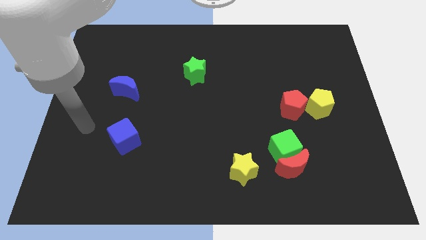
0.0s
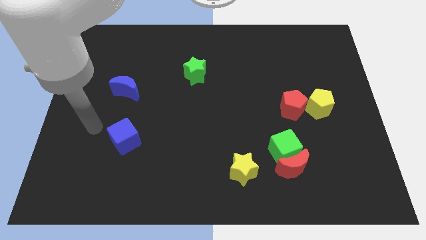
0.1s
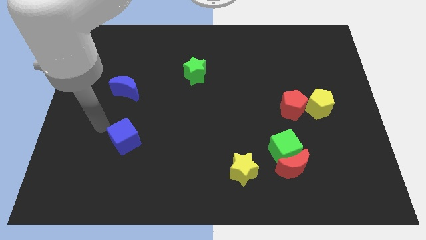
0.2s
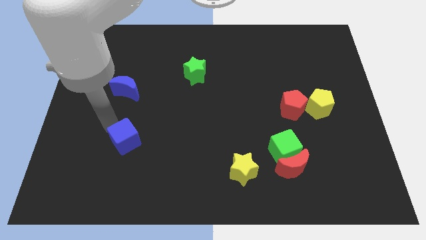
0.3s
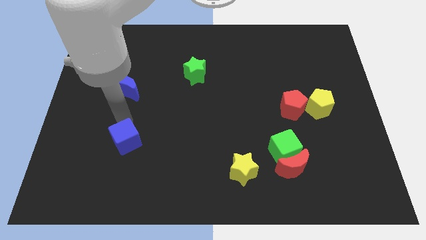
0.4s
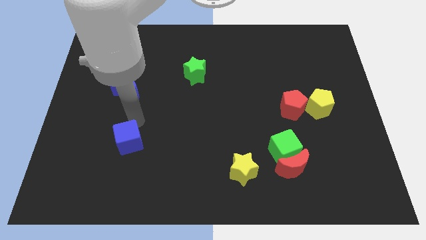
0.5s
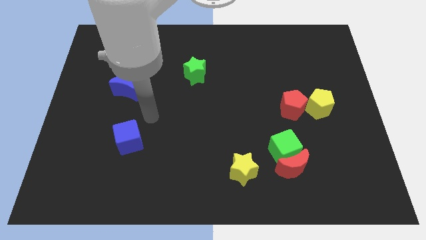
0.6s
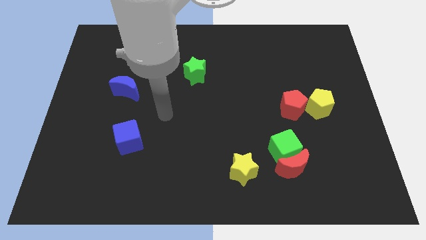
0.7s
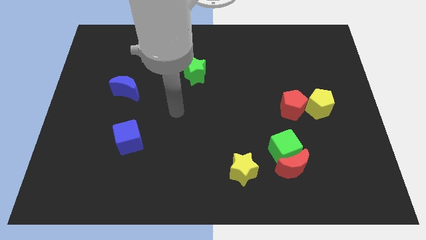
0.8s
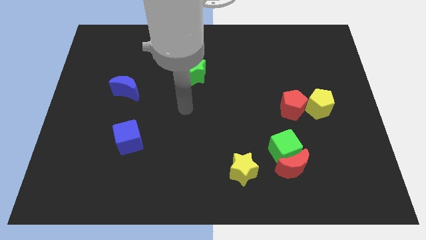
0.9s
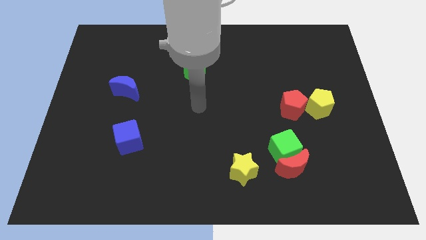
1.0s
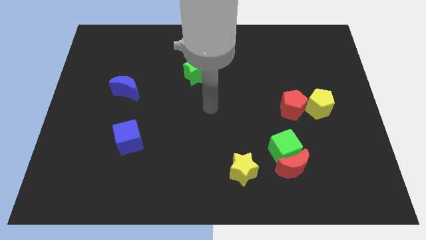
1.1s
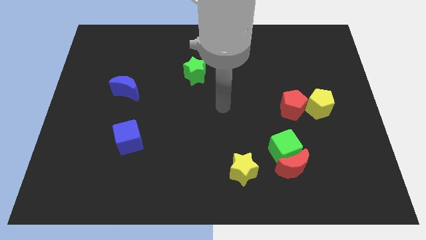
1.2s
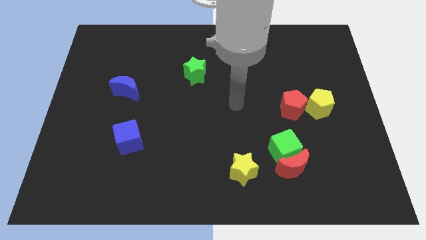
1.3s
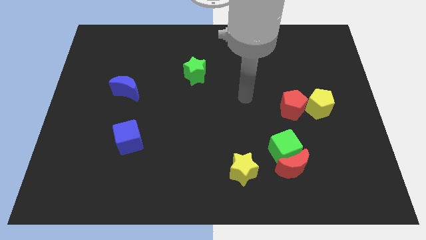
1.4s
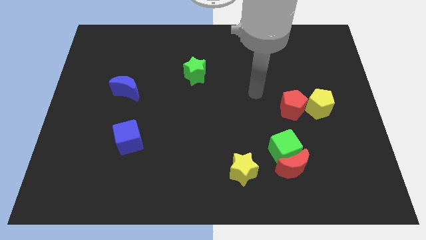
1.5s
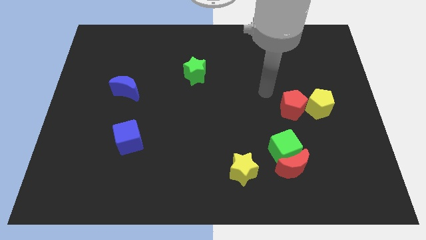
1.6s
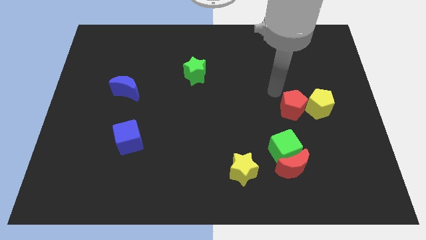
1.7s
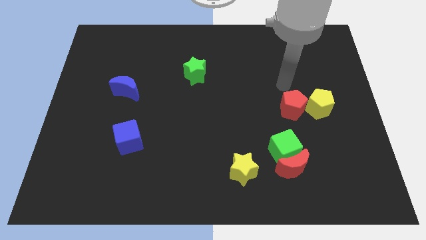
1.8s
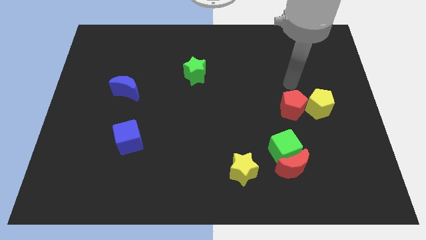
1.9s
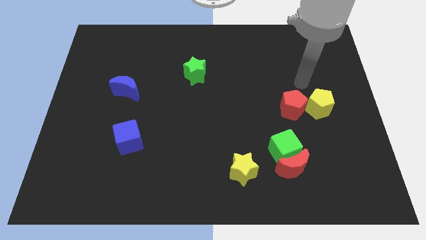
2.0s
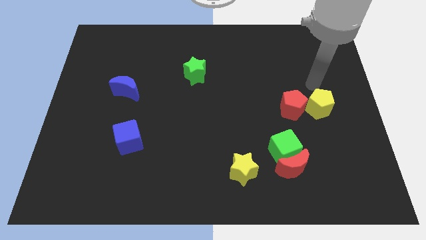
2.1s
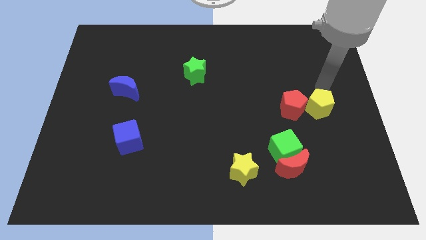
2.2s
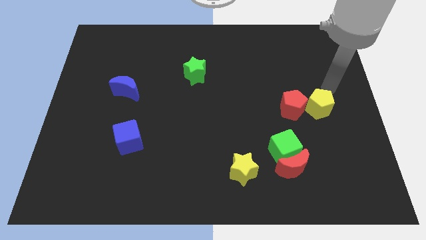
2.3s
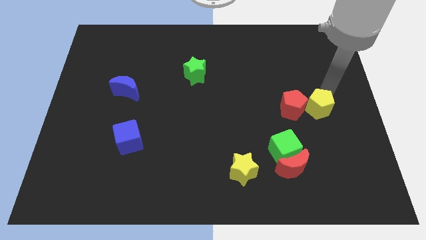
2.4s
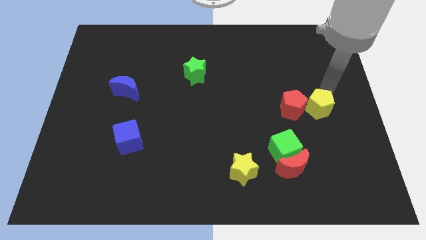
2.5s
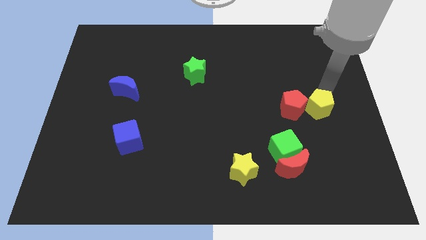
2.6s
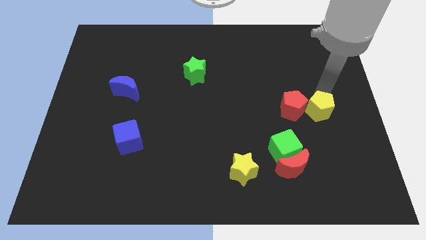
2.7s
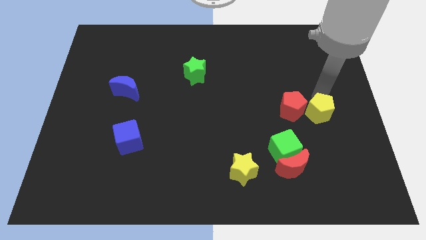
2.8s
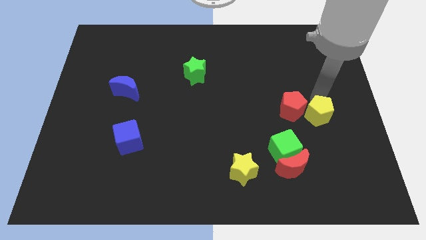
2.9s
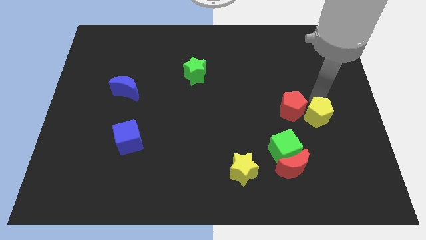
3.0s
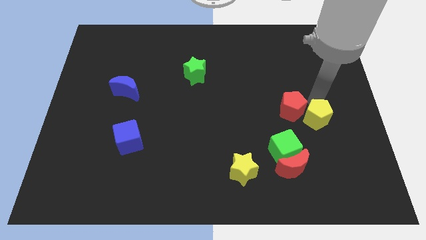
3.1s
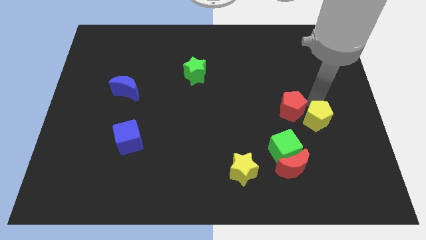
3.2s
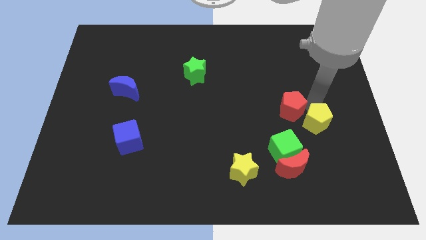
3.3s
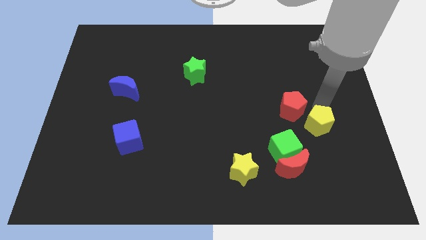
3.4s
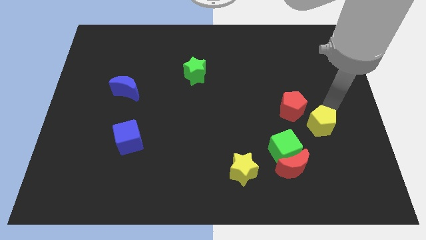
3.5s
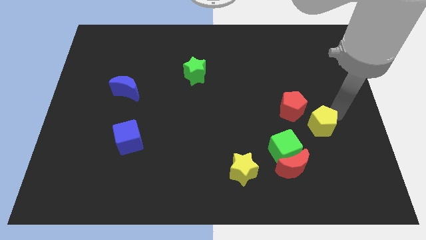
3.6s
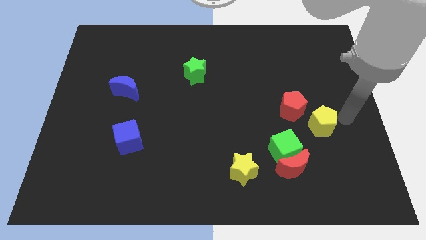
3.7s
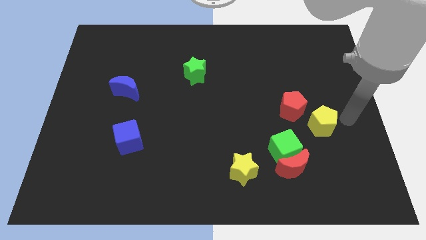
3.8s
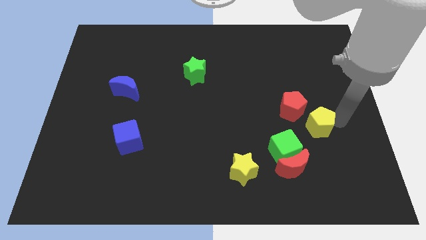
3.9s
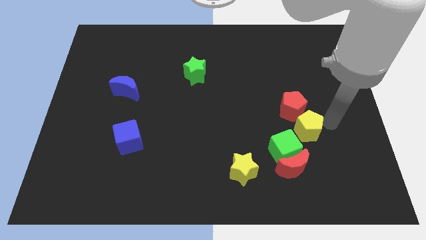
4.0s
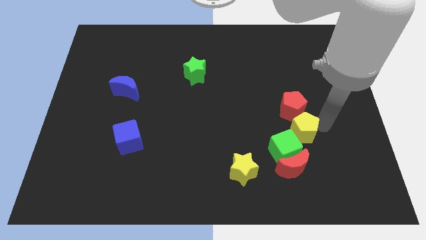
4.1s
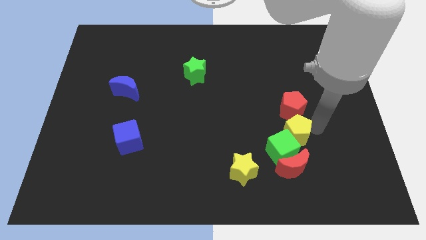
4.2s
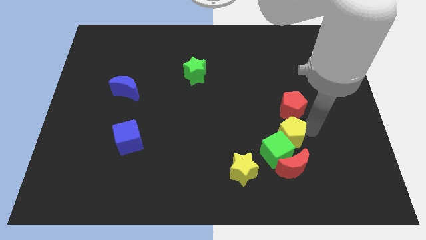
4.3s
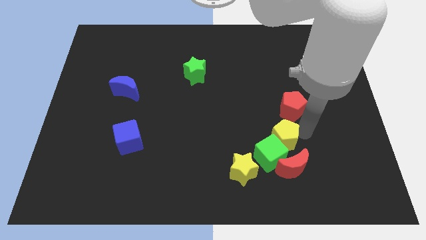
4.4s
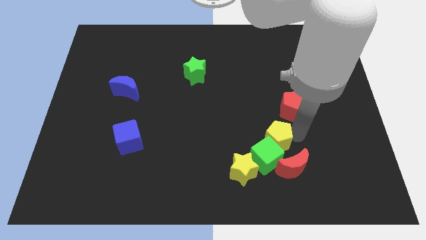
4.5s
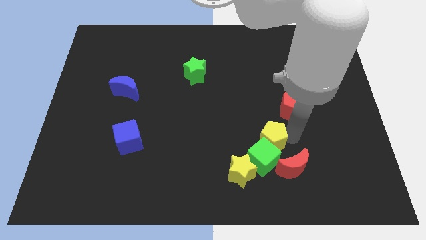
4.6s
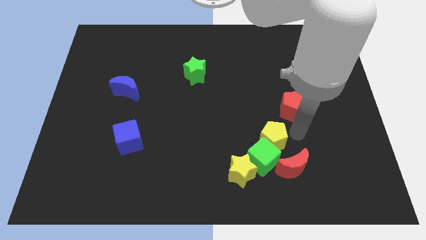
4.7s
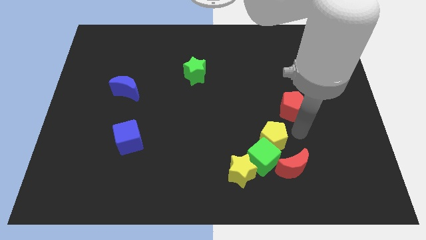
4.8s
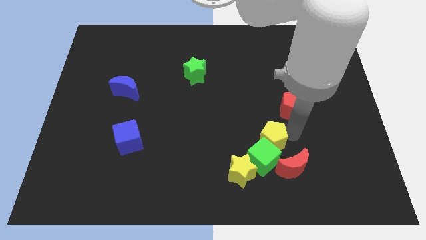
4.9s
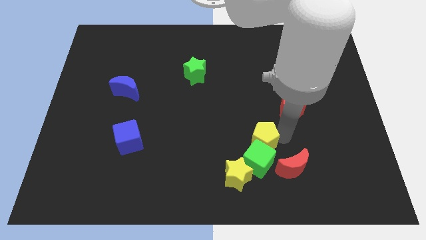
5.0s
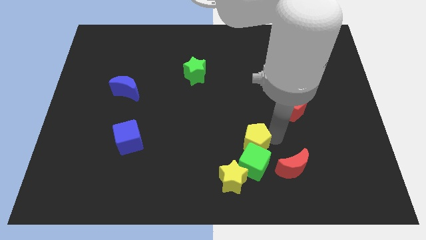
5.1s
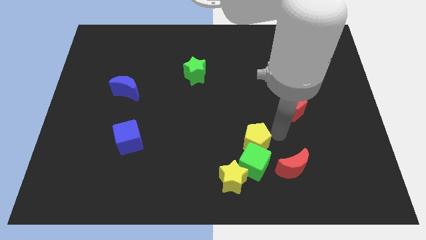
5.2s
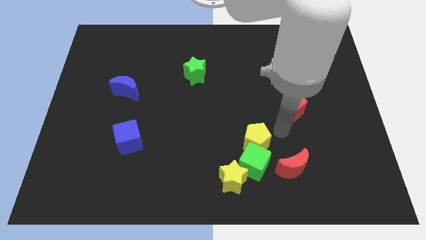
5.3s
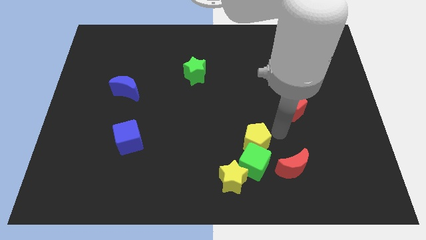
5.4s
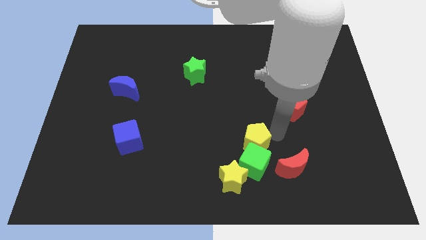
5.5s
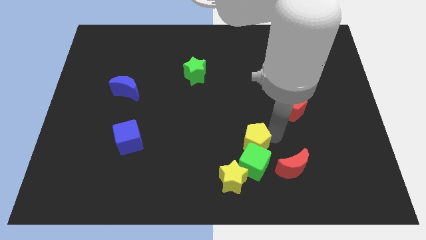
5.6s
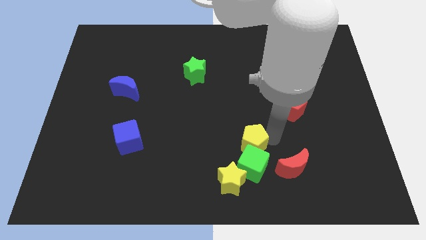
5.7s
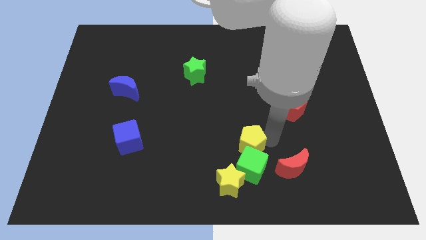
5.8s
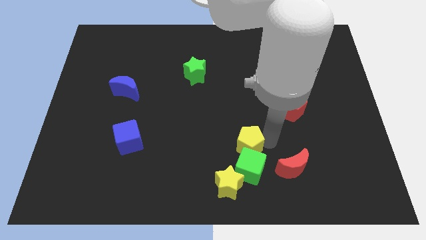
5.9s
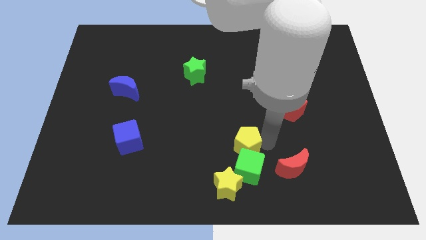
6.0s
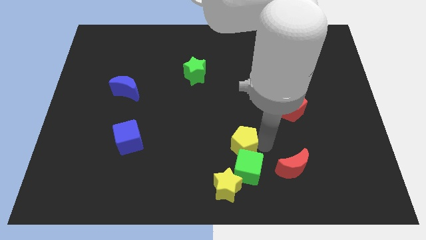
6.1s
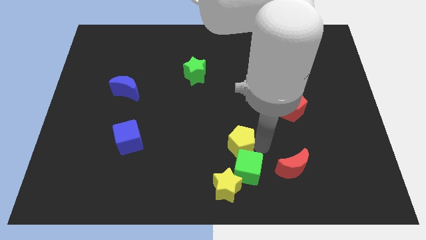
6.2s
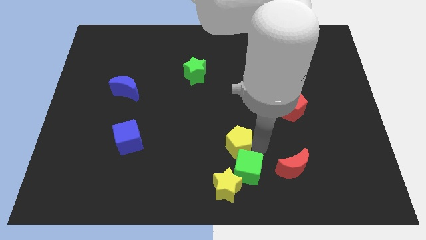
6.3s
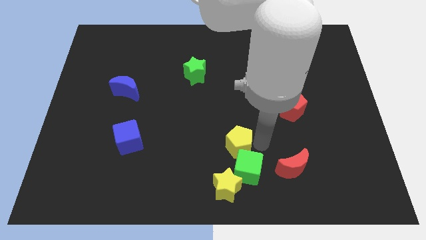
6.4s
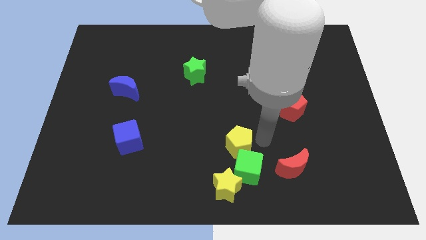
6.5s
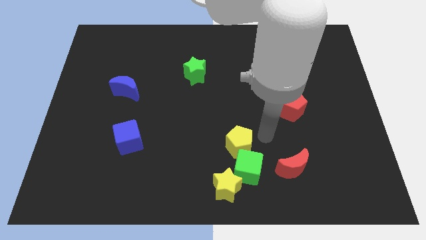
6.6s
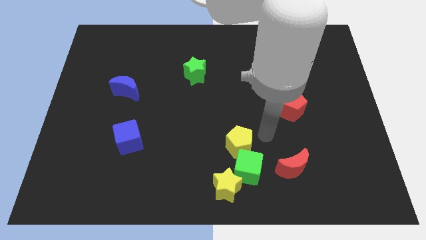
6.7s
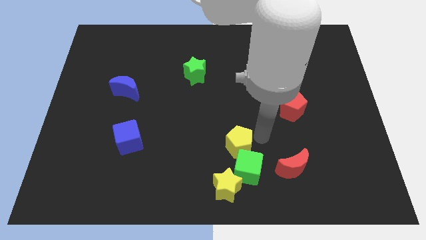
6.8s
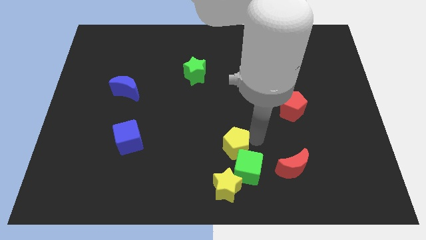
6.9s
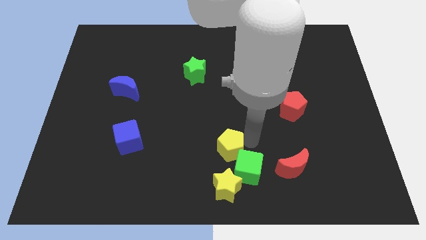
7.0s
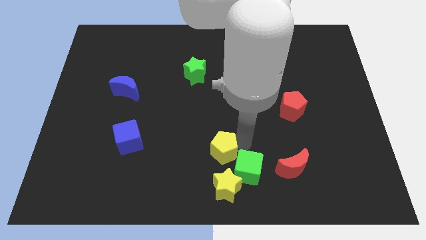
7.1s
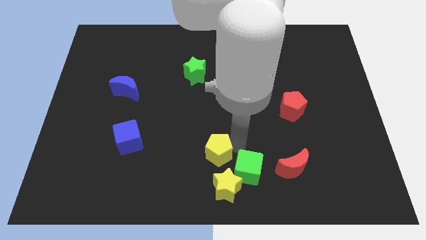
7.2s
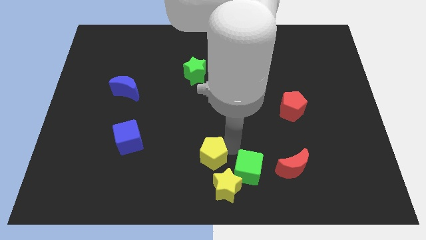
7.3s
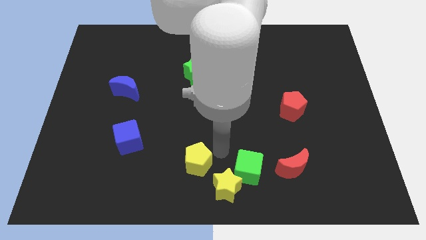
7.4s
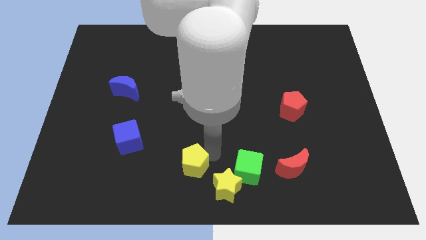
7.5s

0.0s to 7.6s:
push the yellow pentagon to the left side of the yellow star
